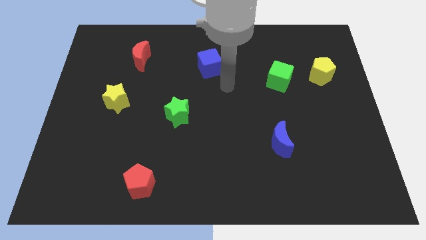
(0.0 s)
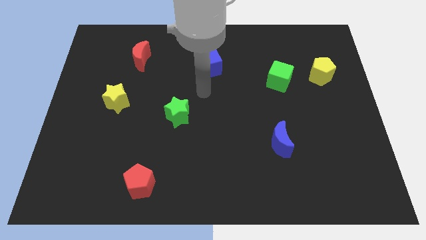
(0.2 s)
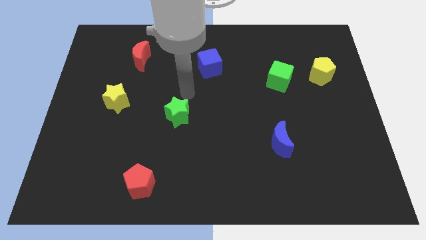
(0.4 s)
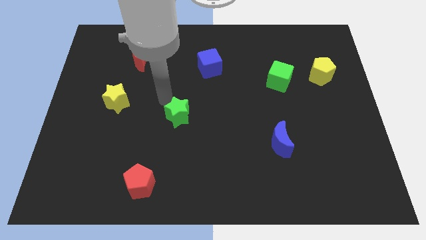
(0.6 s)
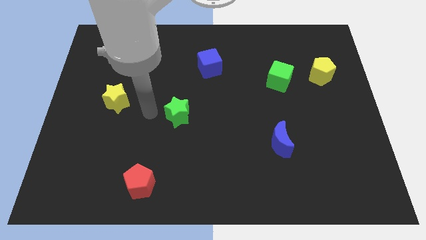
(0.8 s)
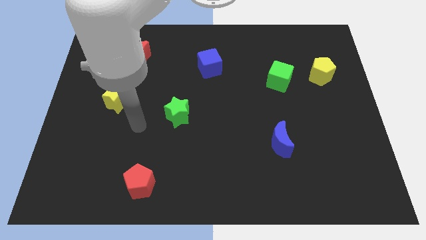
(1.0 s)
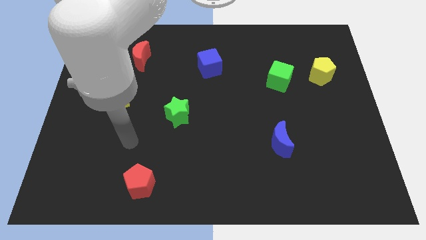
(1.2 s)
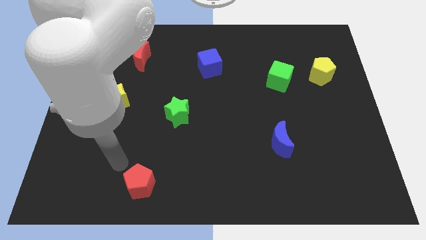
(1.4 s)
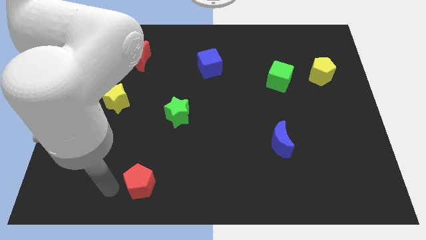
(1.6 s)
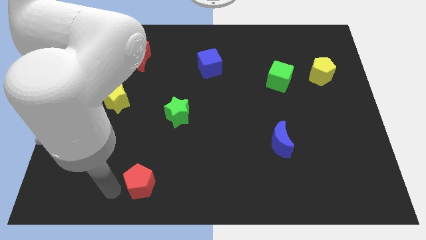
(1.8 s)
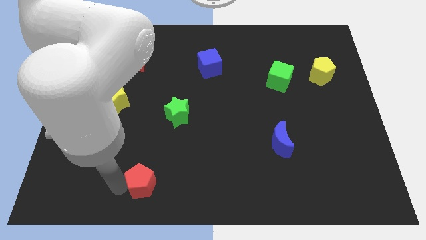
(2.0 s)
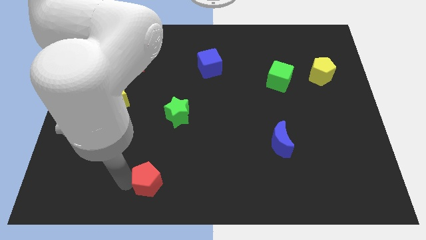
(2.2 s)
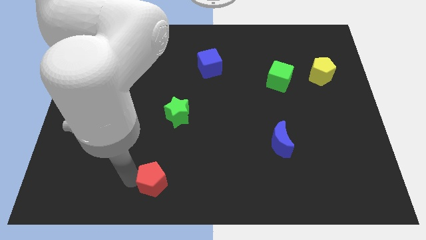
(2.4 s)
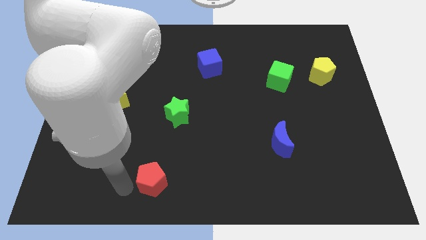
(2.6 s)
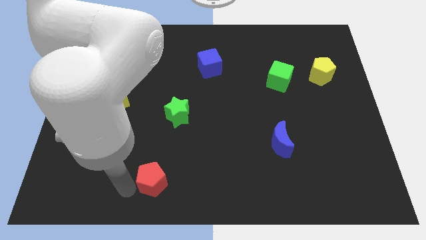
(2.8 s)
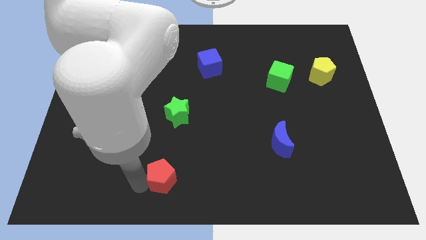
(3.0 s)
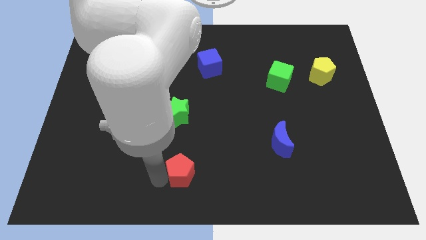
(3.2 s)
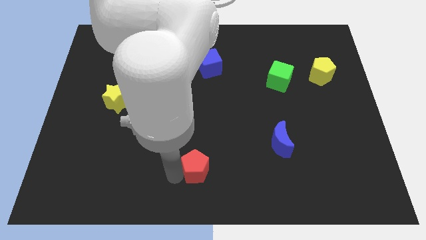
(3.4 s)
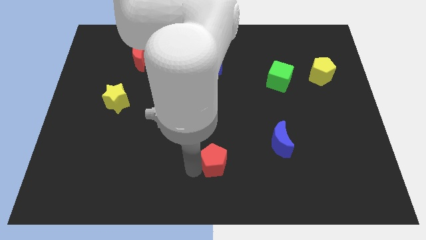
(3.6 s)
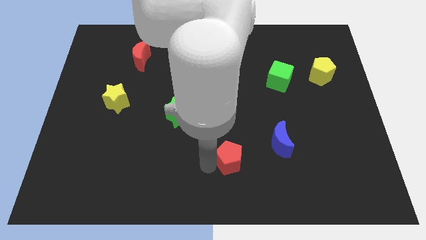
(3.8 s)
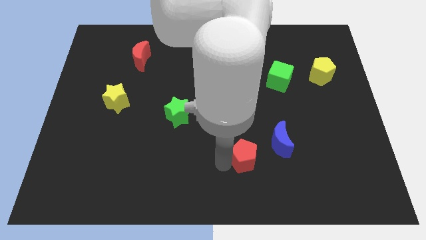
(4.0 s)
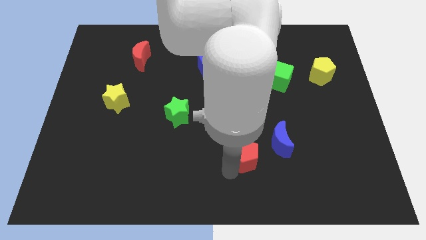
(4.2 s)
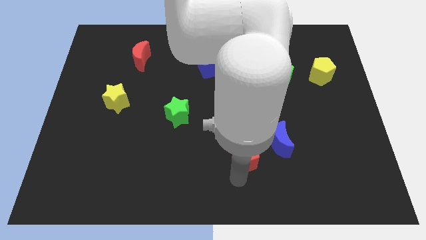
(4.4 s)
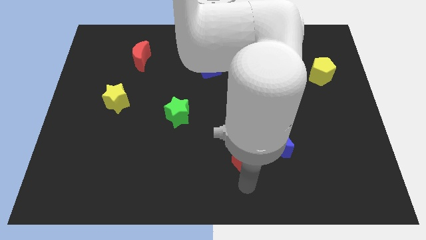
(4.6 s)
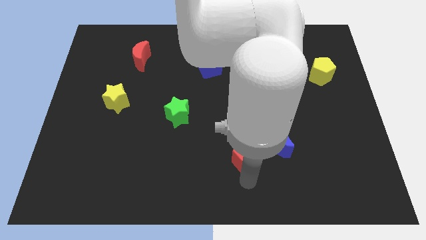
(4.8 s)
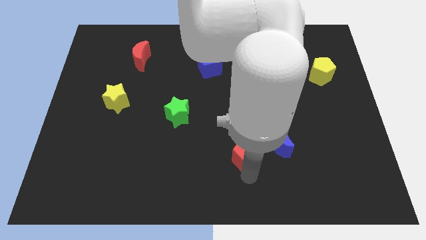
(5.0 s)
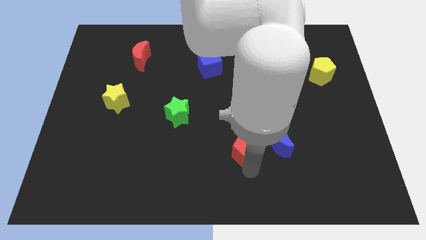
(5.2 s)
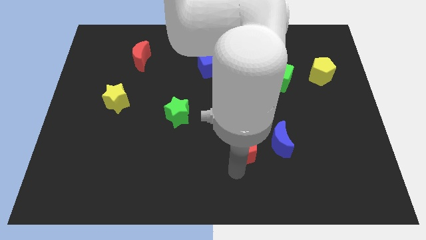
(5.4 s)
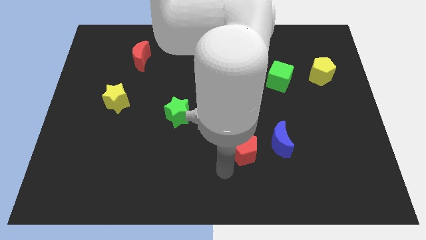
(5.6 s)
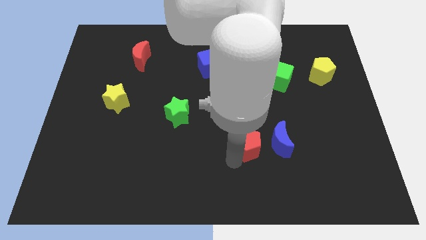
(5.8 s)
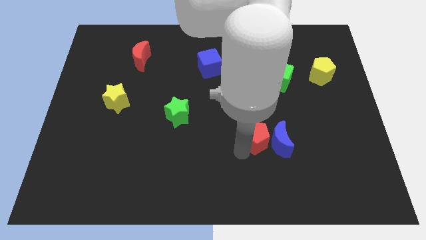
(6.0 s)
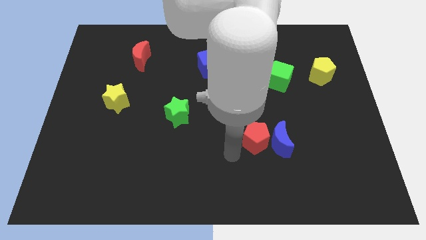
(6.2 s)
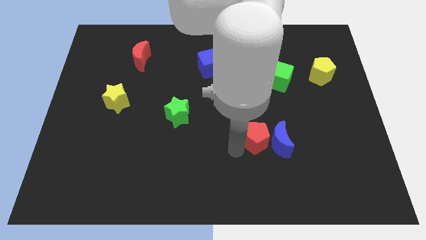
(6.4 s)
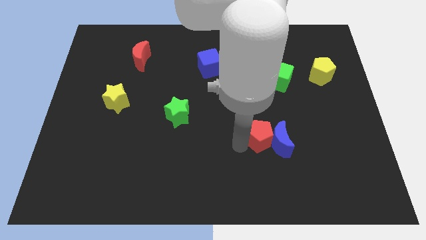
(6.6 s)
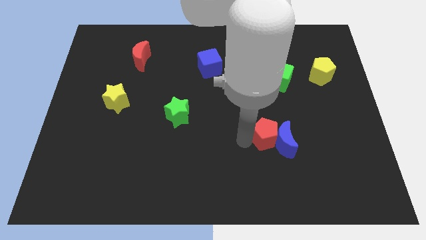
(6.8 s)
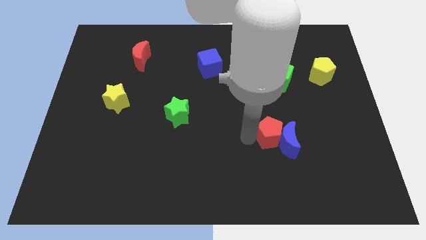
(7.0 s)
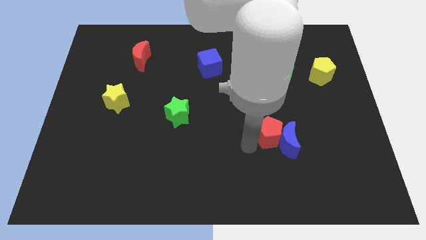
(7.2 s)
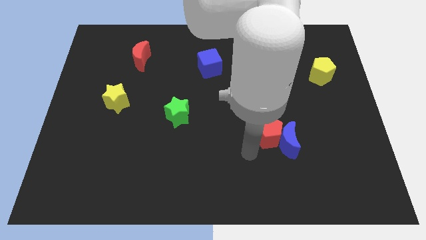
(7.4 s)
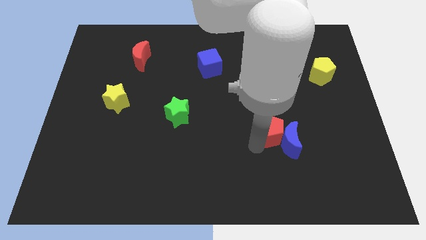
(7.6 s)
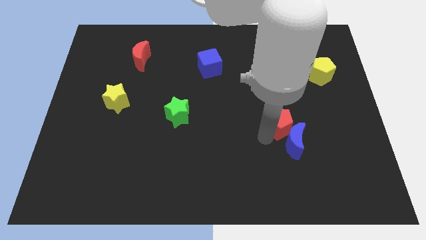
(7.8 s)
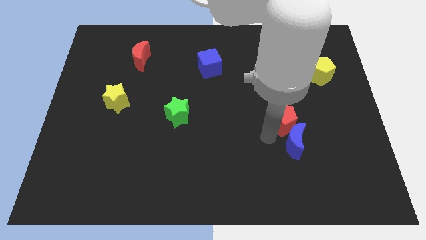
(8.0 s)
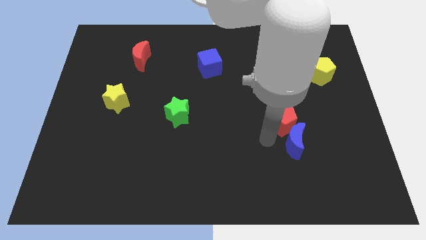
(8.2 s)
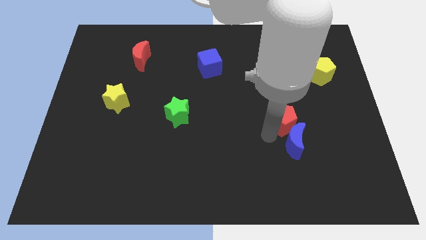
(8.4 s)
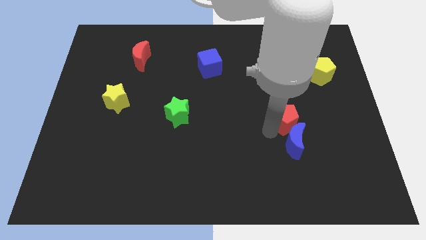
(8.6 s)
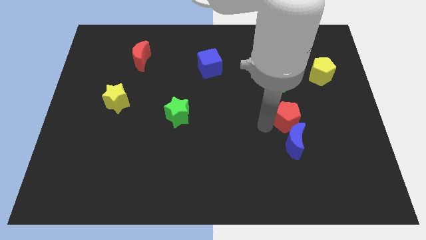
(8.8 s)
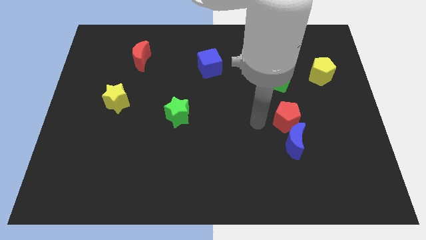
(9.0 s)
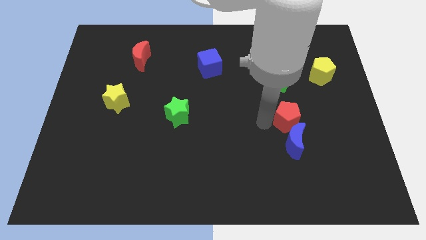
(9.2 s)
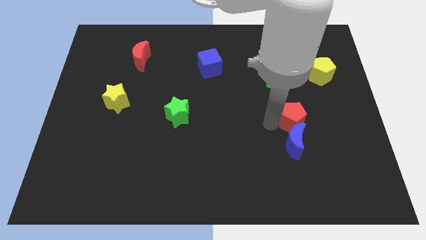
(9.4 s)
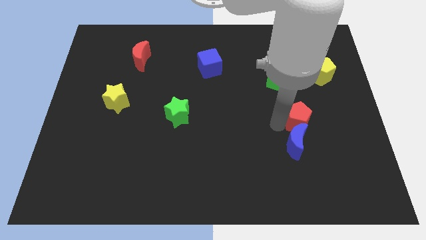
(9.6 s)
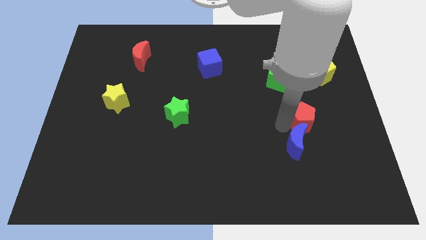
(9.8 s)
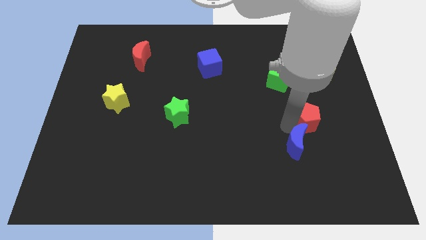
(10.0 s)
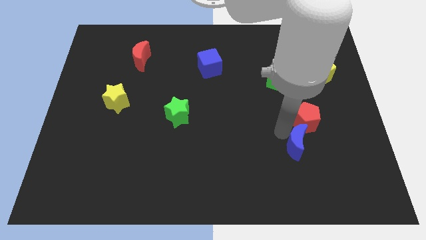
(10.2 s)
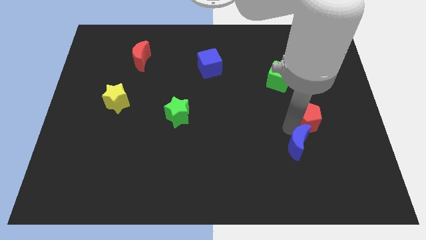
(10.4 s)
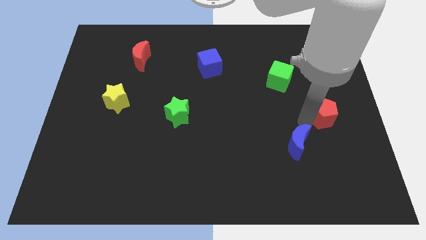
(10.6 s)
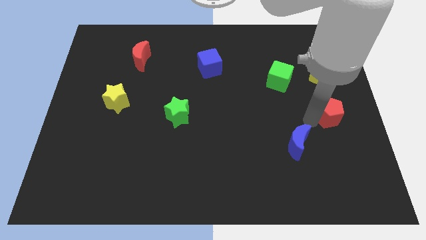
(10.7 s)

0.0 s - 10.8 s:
push the red pentagon to the right side of the board

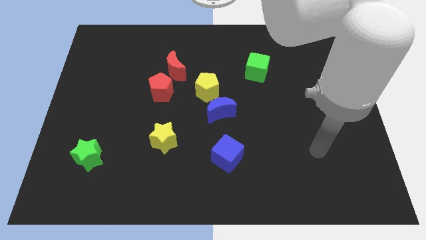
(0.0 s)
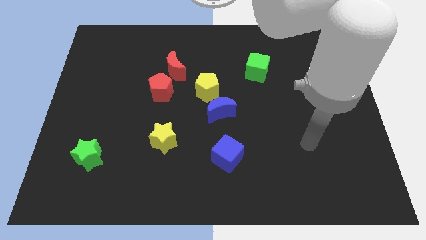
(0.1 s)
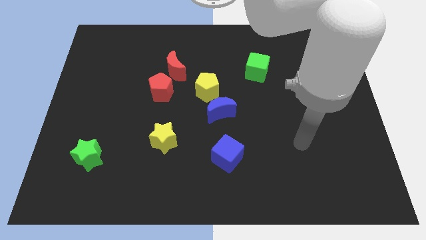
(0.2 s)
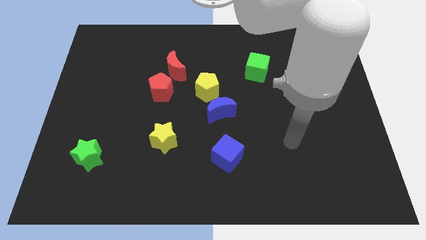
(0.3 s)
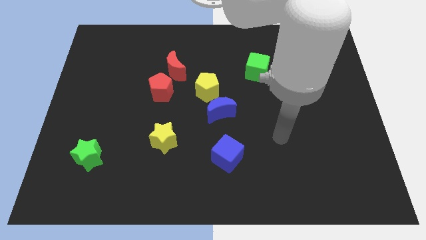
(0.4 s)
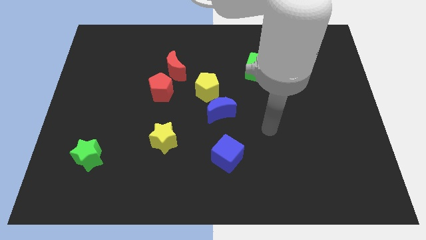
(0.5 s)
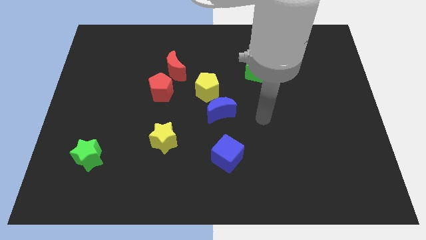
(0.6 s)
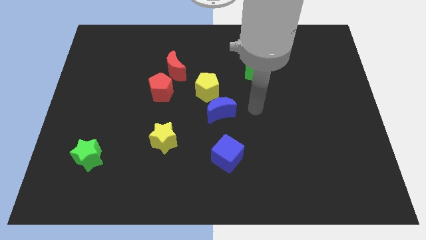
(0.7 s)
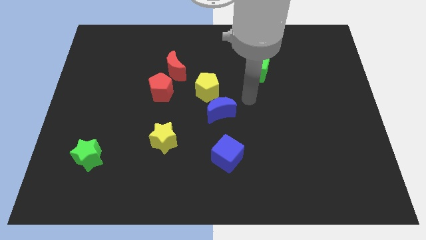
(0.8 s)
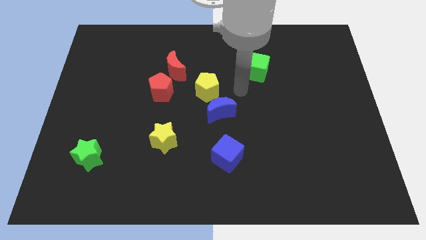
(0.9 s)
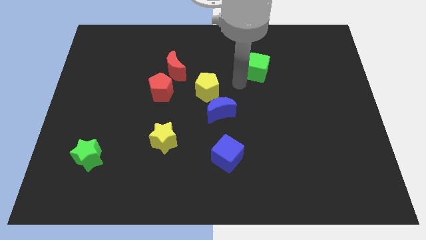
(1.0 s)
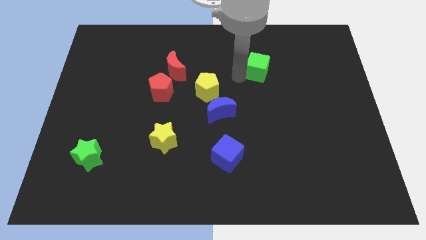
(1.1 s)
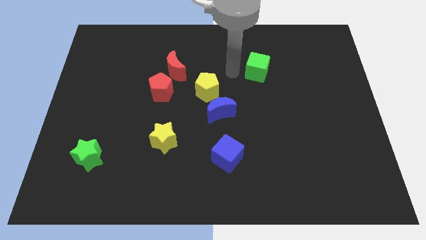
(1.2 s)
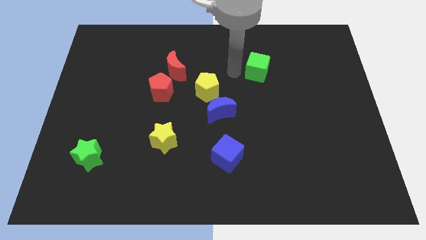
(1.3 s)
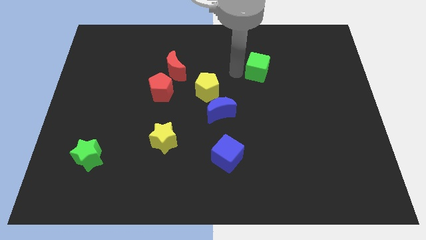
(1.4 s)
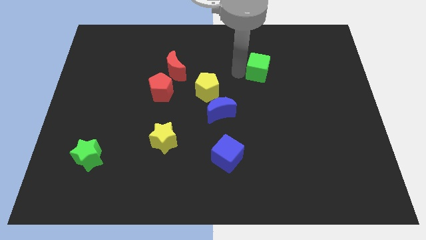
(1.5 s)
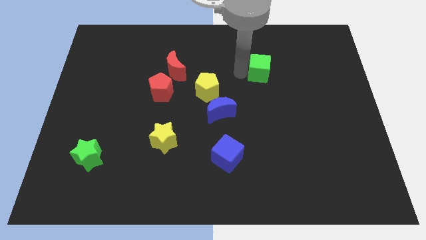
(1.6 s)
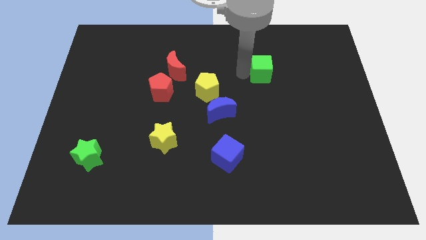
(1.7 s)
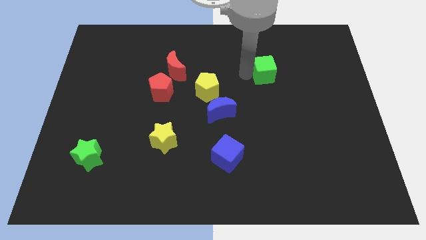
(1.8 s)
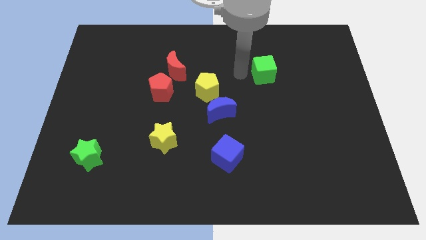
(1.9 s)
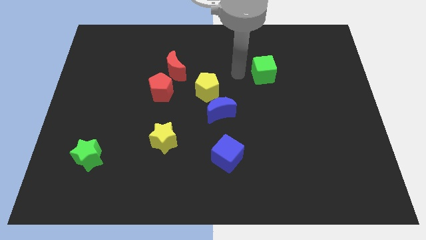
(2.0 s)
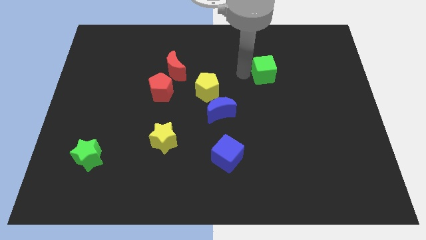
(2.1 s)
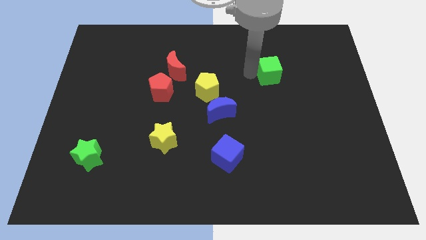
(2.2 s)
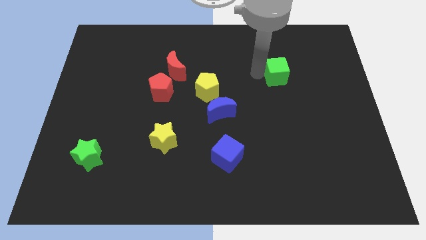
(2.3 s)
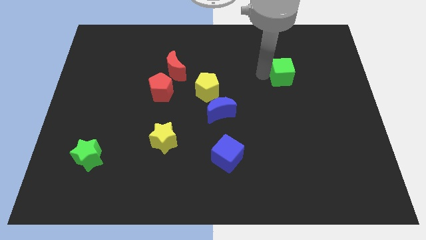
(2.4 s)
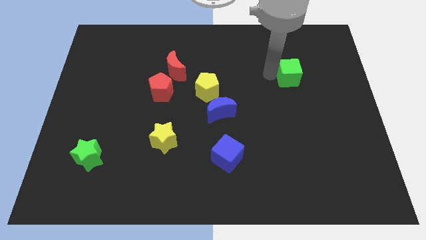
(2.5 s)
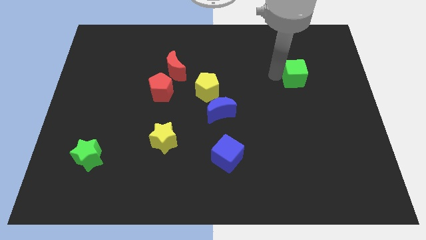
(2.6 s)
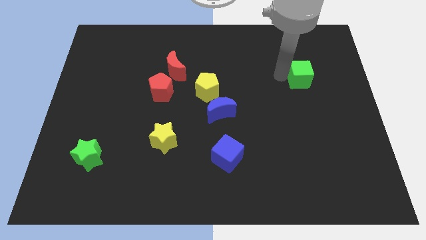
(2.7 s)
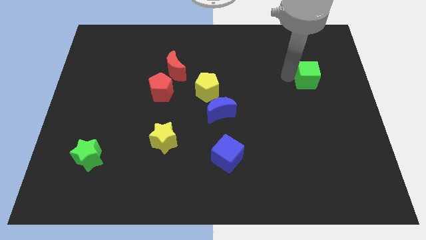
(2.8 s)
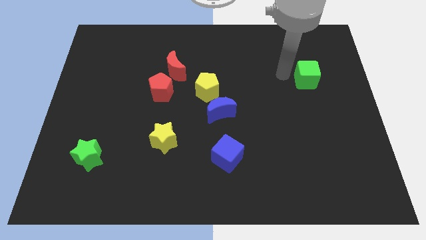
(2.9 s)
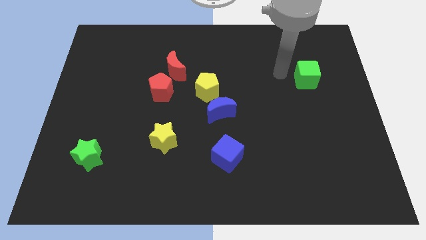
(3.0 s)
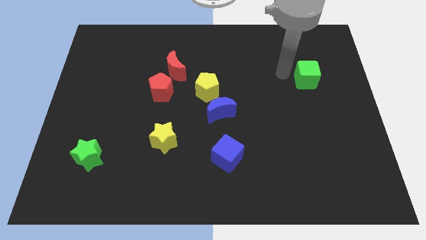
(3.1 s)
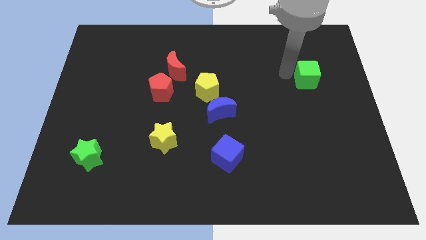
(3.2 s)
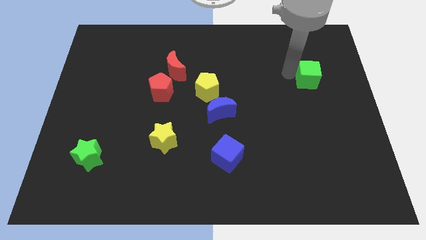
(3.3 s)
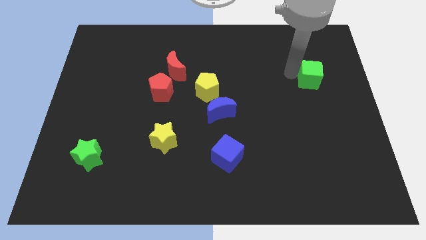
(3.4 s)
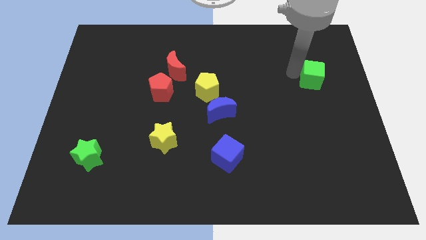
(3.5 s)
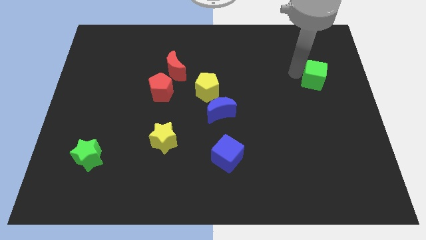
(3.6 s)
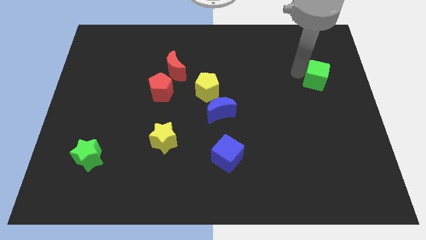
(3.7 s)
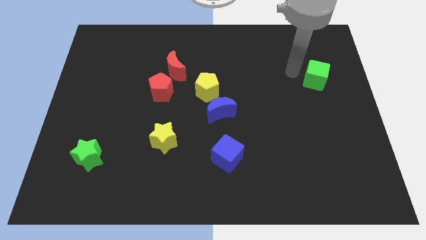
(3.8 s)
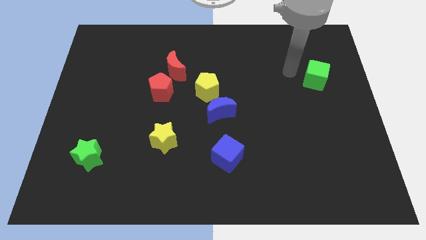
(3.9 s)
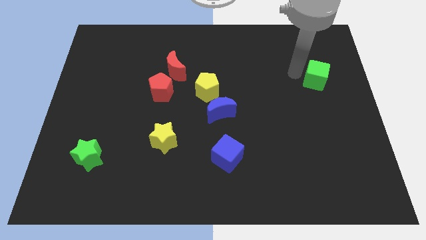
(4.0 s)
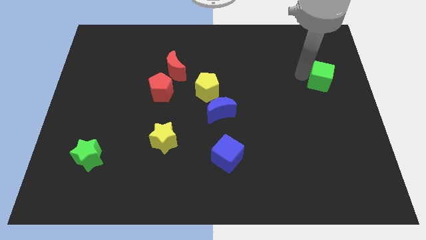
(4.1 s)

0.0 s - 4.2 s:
slide the green cube to the right side of the board
